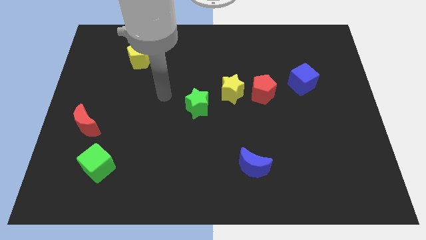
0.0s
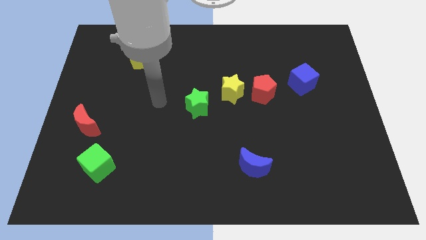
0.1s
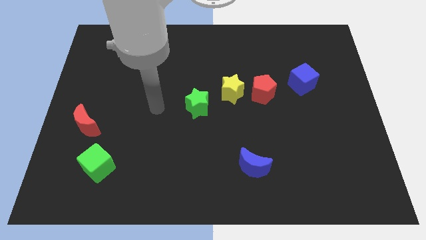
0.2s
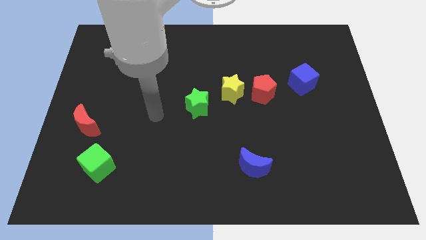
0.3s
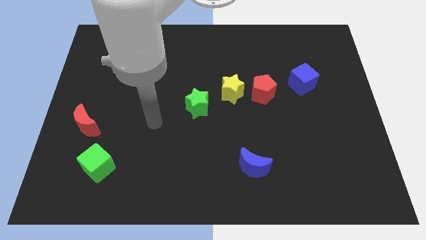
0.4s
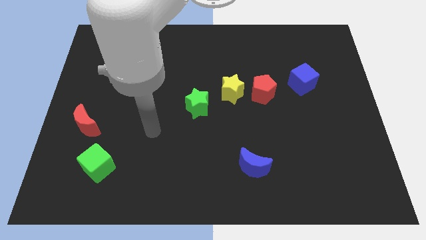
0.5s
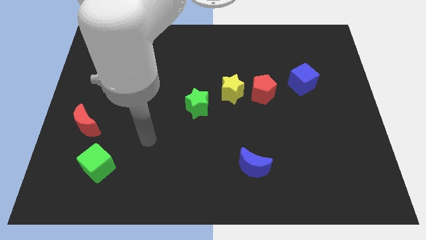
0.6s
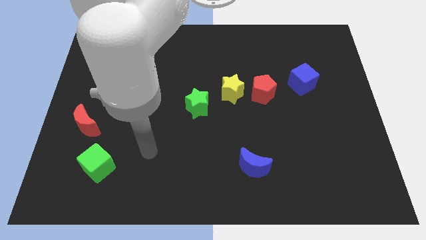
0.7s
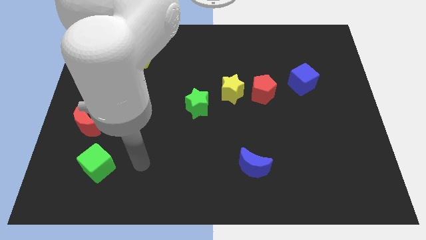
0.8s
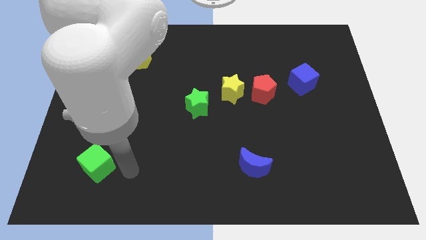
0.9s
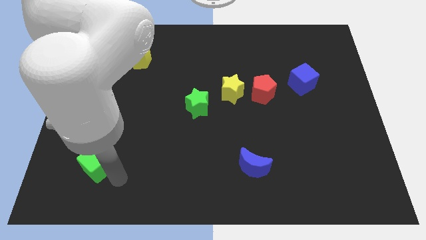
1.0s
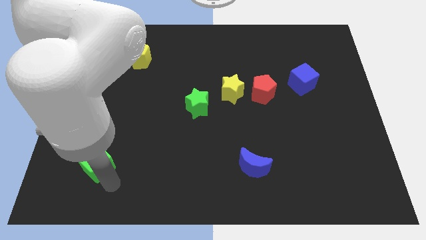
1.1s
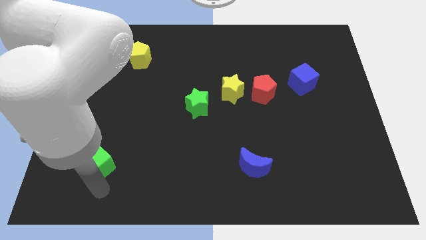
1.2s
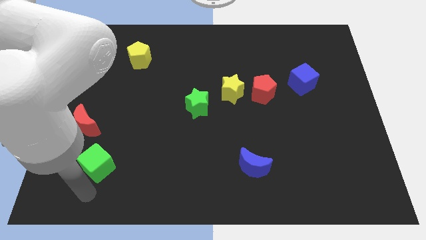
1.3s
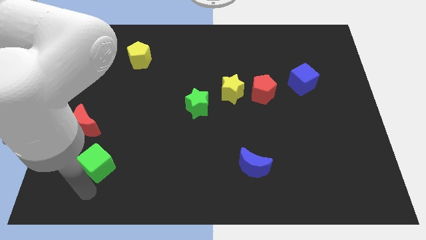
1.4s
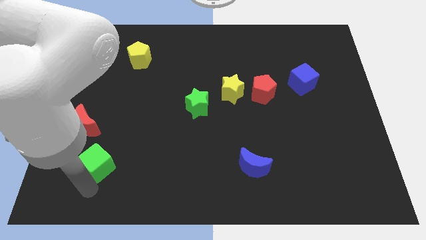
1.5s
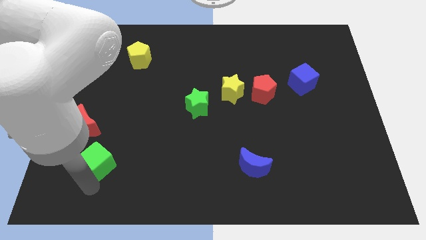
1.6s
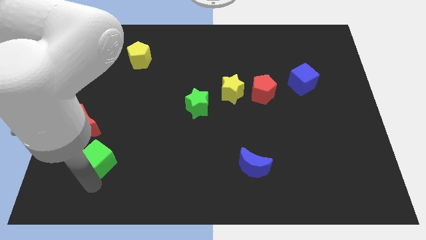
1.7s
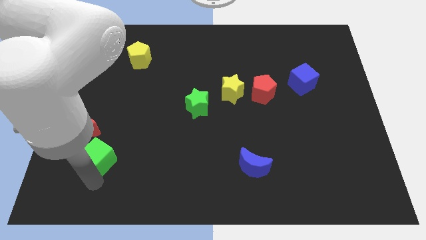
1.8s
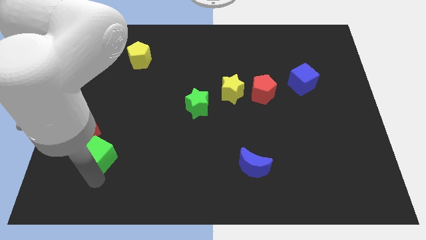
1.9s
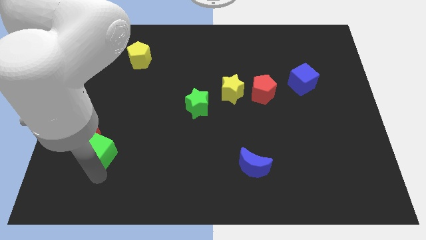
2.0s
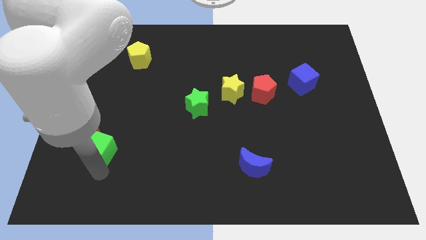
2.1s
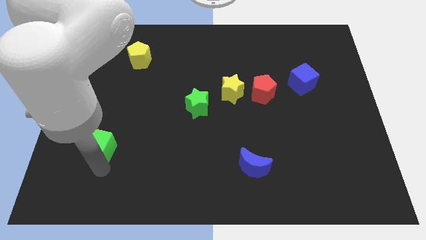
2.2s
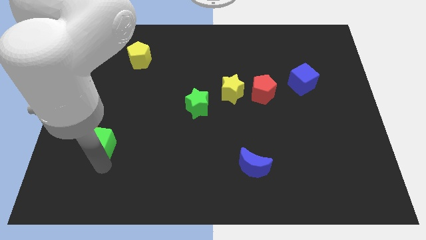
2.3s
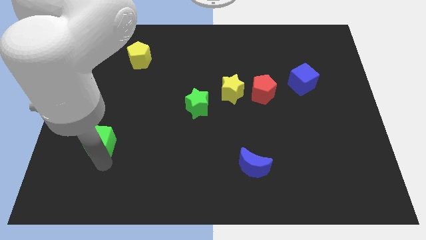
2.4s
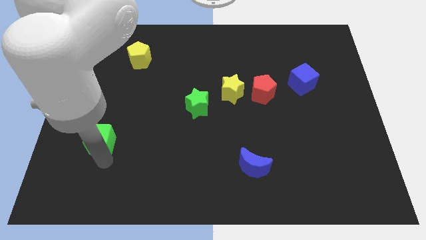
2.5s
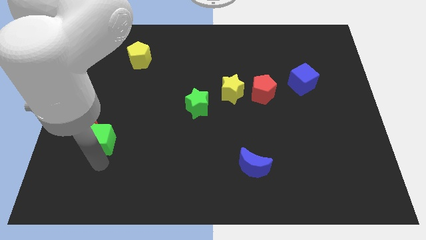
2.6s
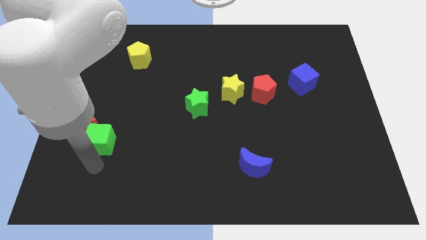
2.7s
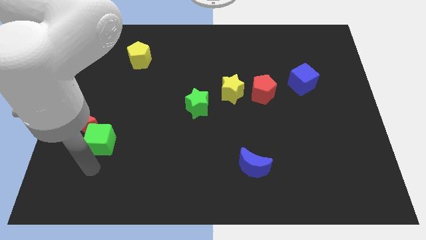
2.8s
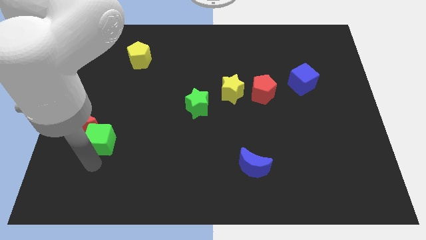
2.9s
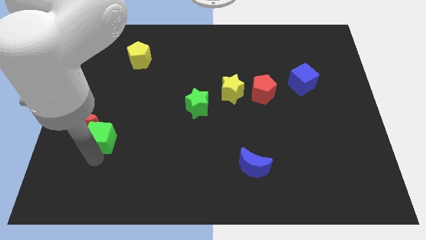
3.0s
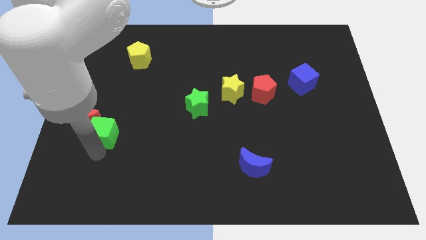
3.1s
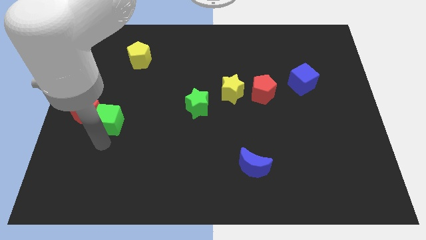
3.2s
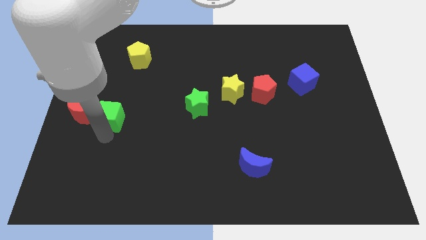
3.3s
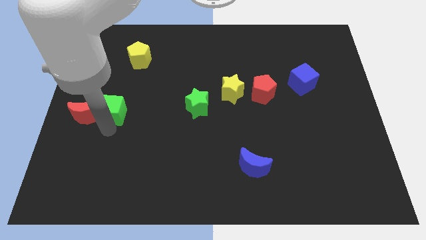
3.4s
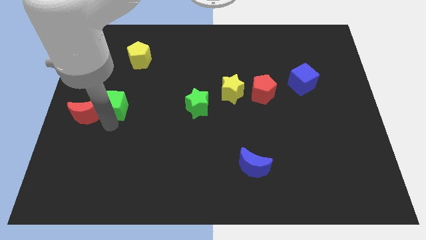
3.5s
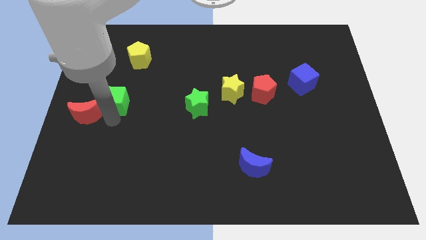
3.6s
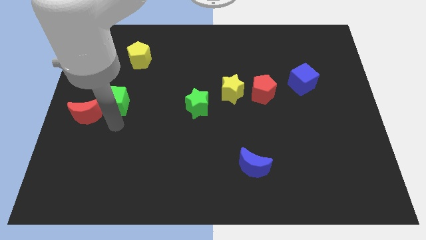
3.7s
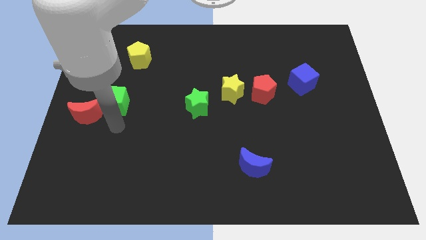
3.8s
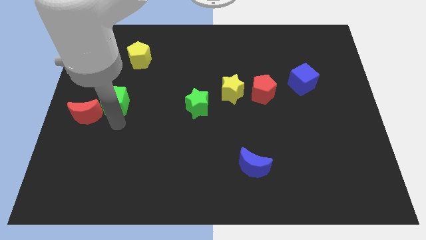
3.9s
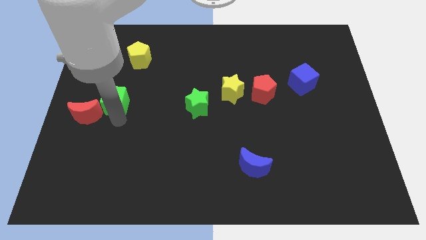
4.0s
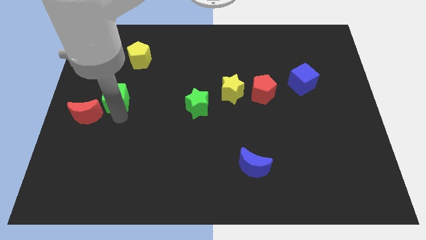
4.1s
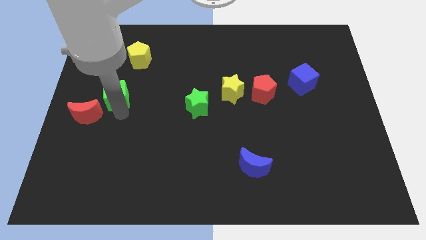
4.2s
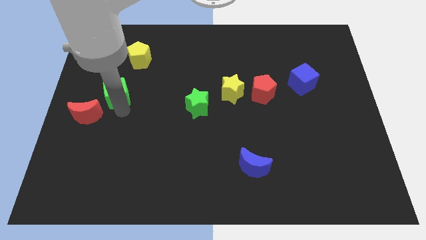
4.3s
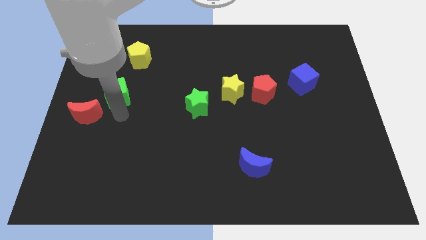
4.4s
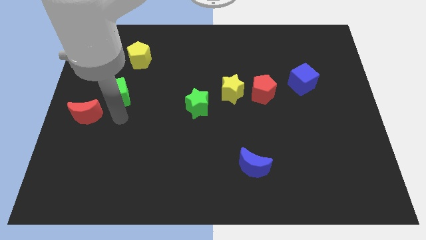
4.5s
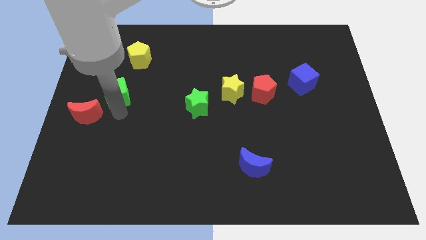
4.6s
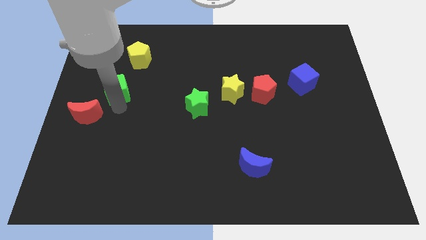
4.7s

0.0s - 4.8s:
slide the green cube upwards

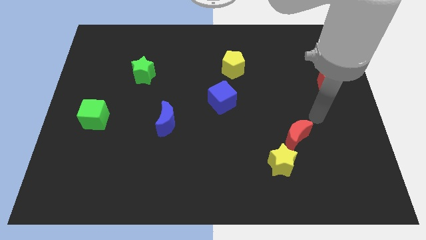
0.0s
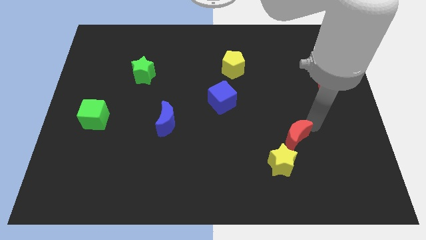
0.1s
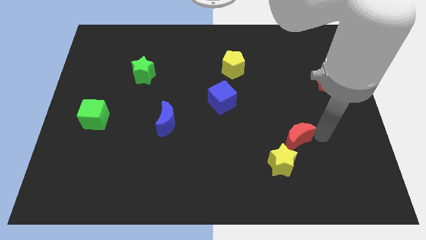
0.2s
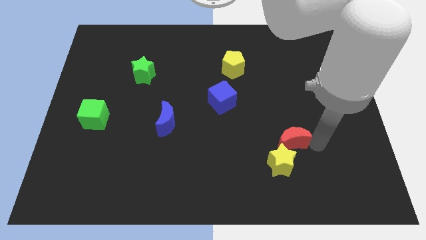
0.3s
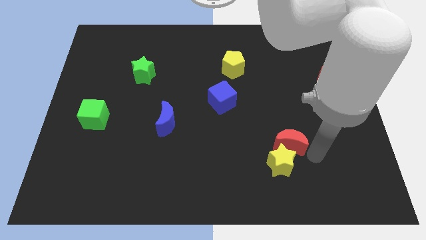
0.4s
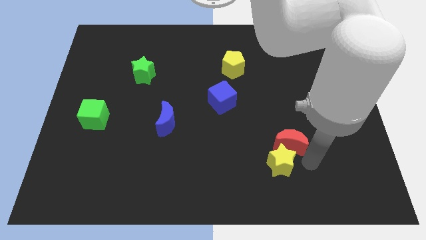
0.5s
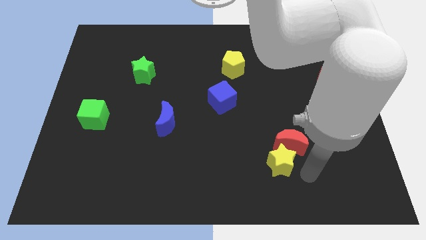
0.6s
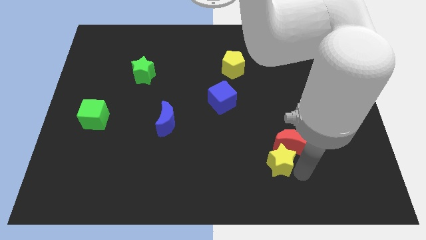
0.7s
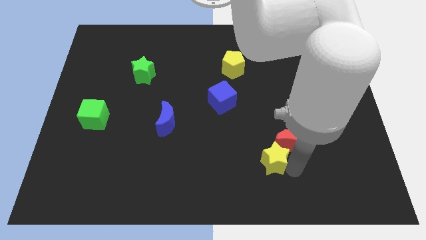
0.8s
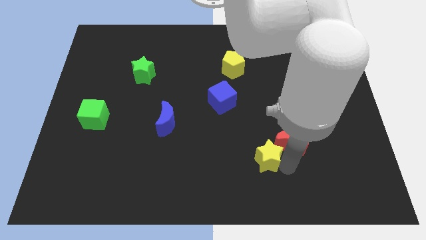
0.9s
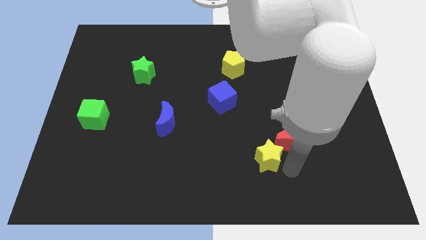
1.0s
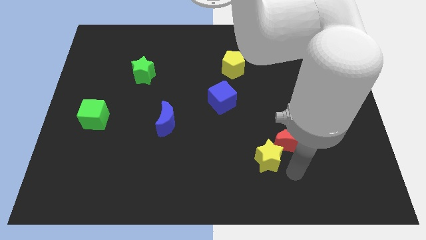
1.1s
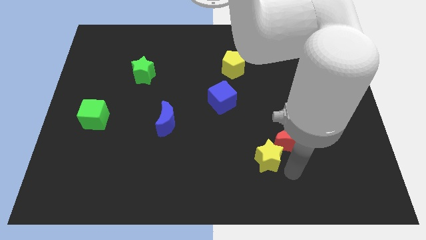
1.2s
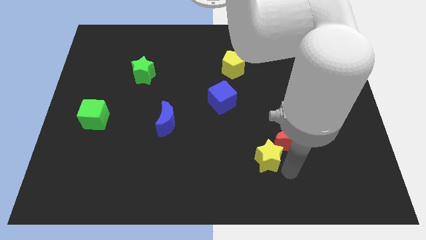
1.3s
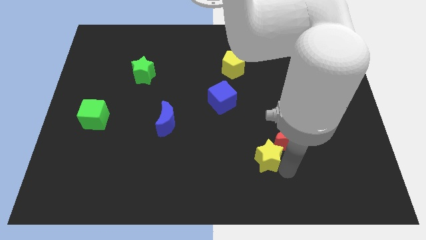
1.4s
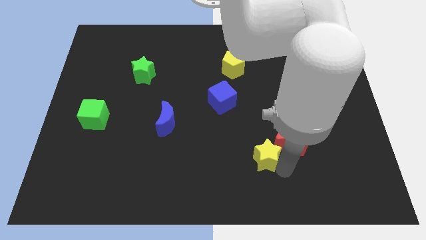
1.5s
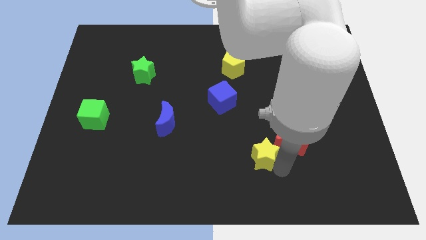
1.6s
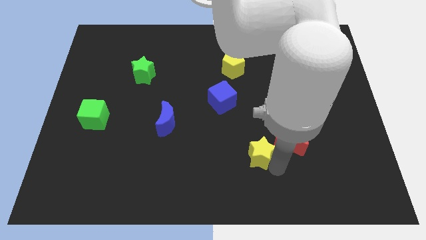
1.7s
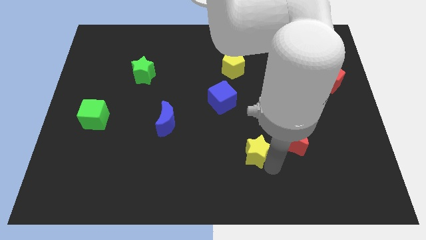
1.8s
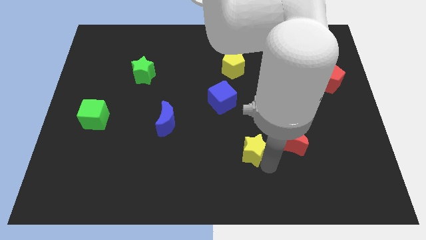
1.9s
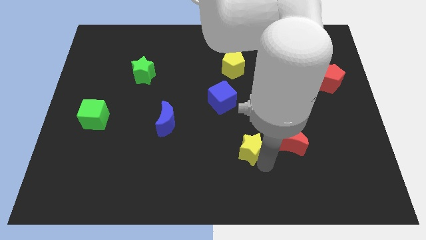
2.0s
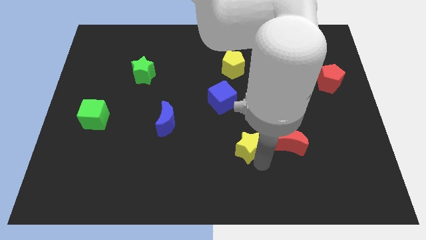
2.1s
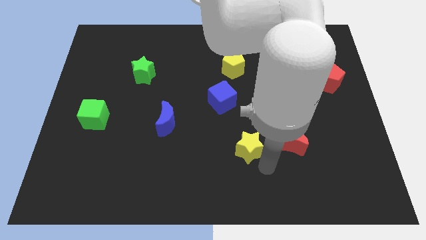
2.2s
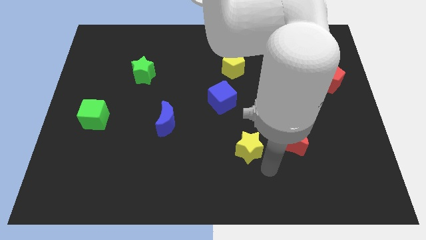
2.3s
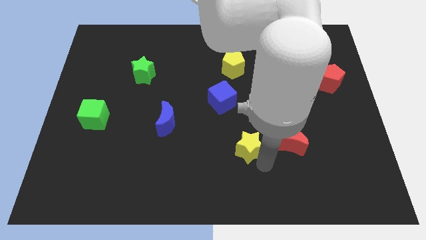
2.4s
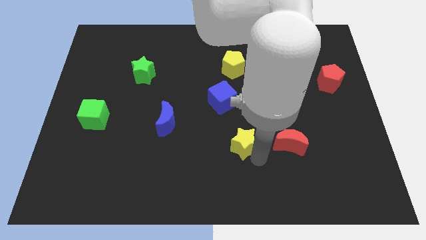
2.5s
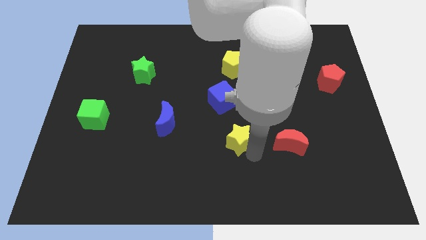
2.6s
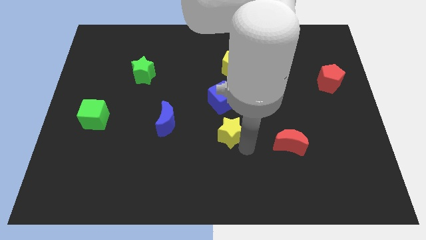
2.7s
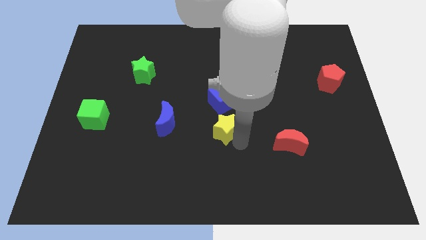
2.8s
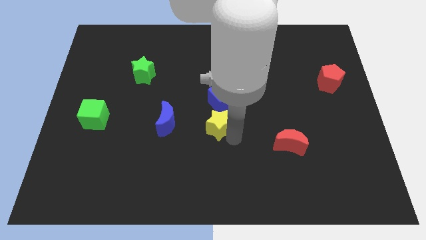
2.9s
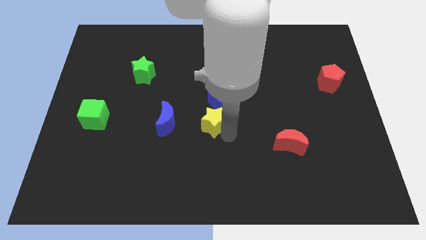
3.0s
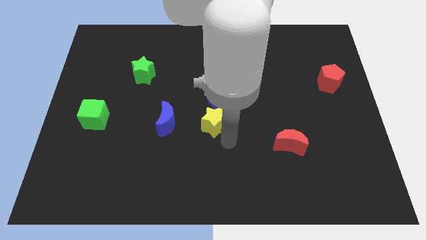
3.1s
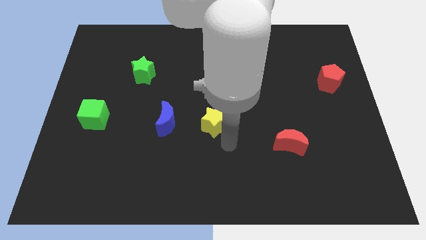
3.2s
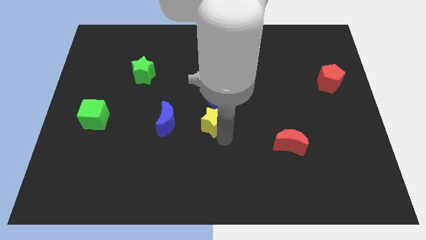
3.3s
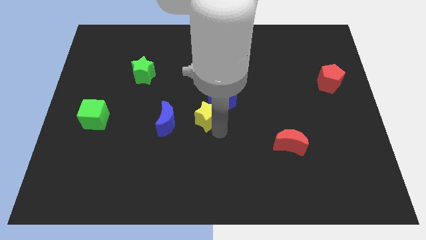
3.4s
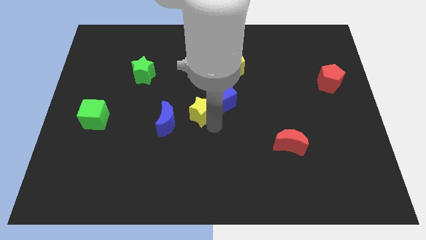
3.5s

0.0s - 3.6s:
move the yellow star up and then to the left
